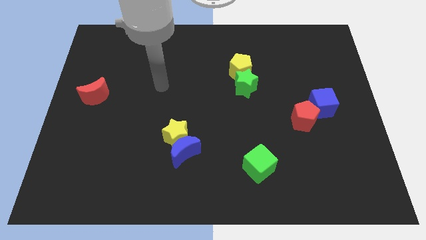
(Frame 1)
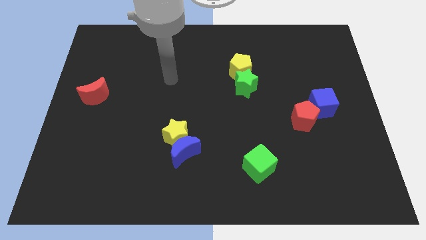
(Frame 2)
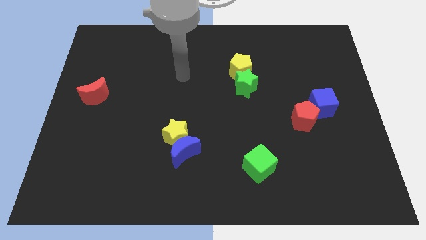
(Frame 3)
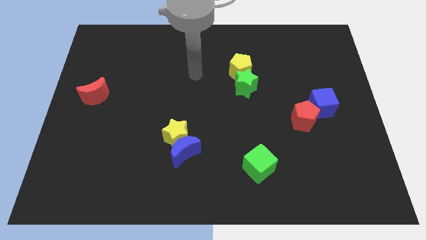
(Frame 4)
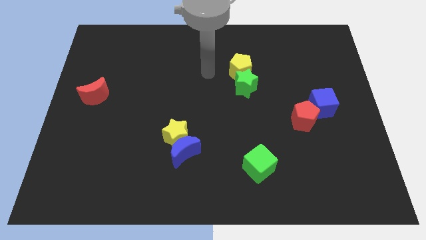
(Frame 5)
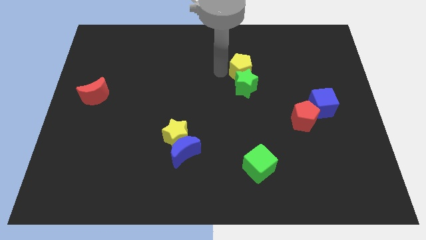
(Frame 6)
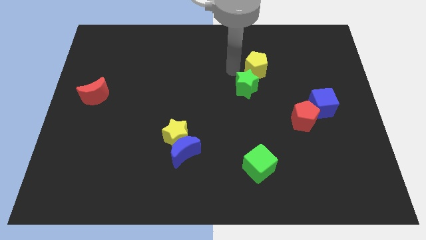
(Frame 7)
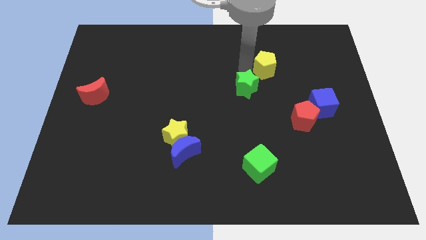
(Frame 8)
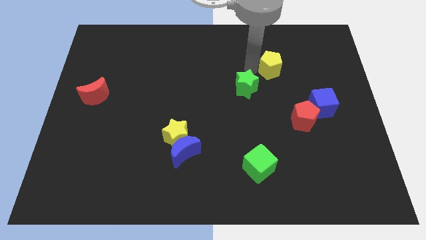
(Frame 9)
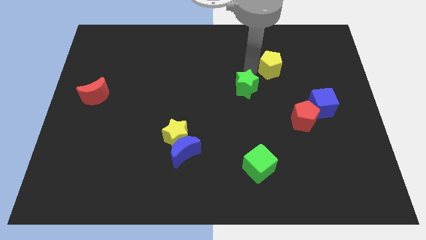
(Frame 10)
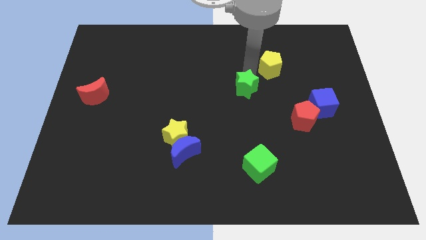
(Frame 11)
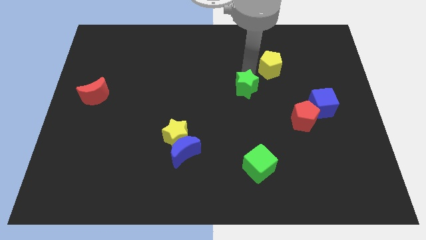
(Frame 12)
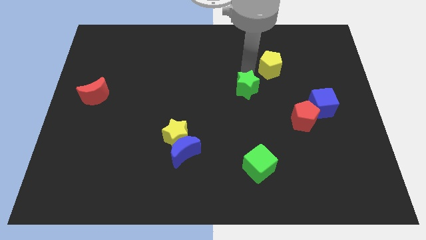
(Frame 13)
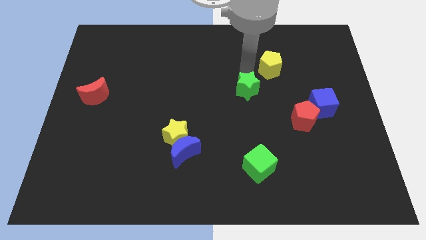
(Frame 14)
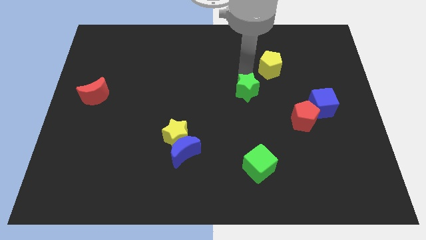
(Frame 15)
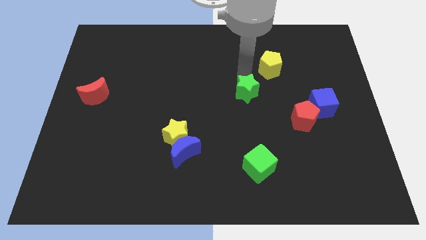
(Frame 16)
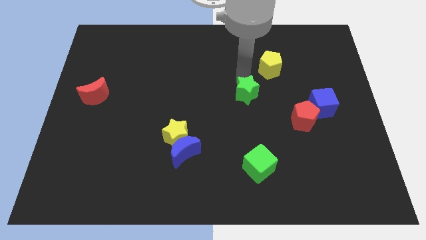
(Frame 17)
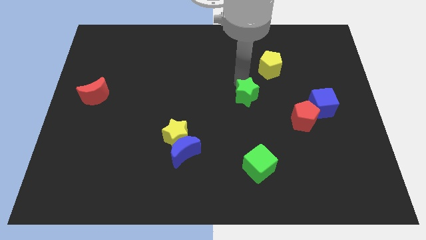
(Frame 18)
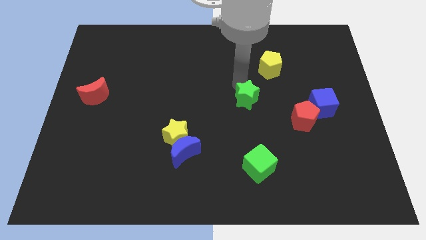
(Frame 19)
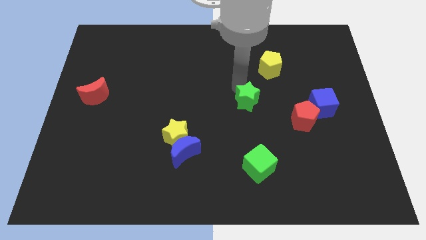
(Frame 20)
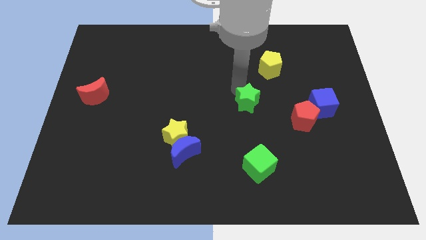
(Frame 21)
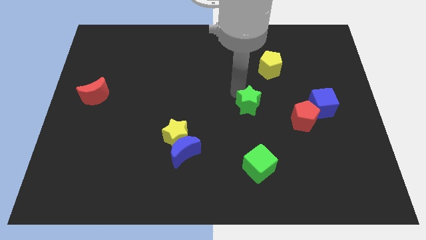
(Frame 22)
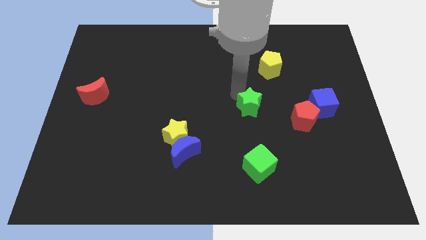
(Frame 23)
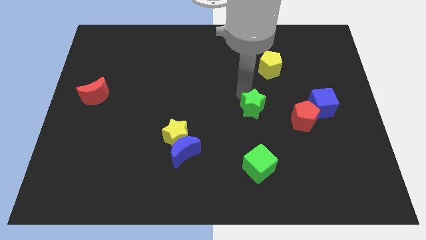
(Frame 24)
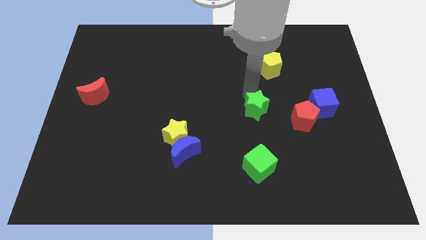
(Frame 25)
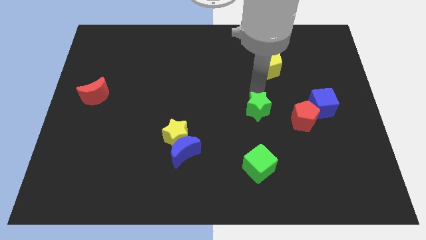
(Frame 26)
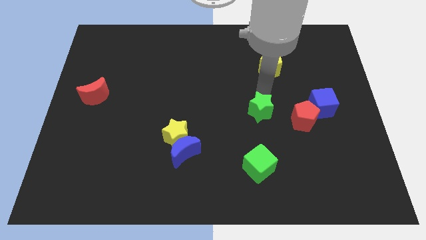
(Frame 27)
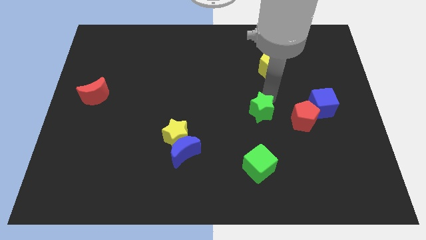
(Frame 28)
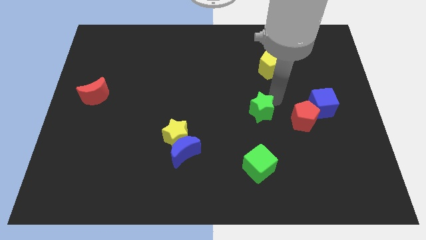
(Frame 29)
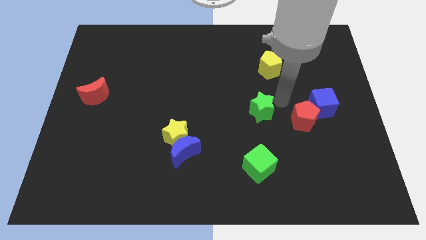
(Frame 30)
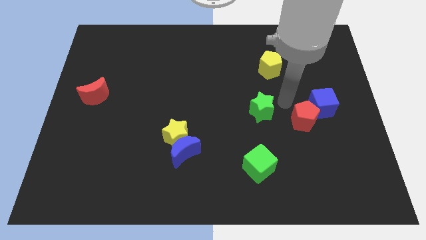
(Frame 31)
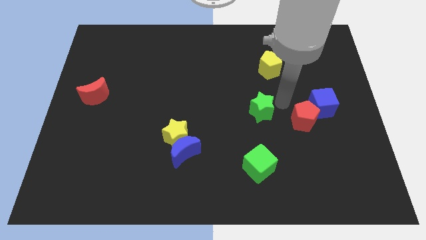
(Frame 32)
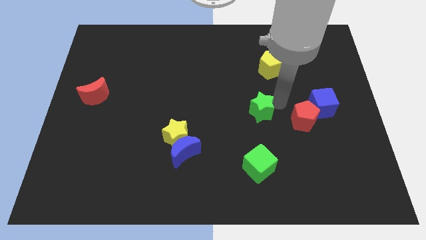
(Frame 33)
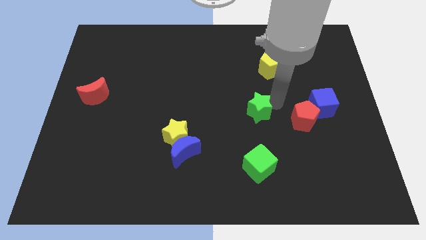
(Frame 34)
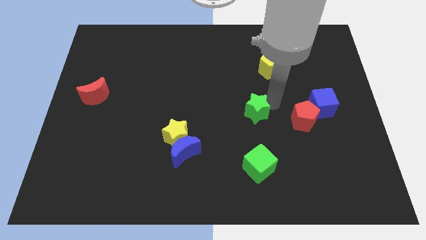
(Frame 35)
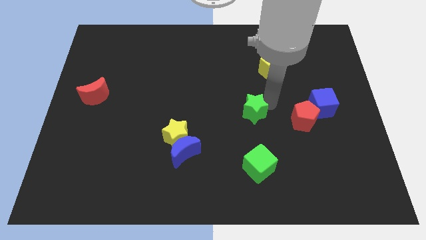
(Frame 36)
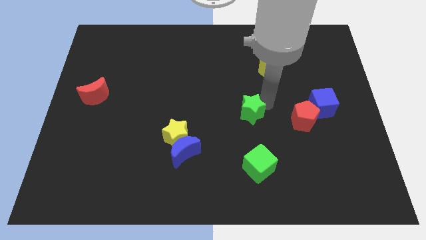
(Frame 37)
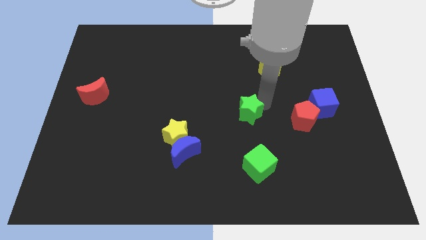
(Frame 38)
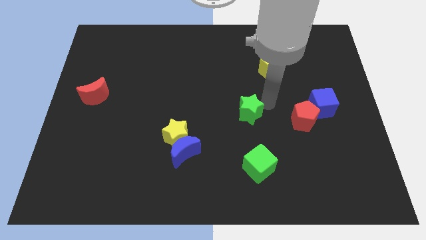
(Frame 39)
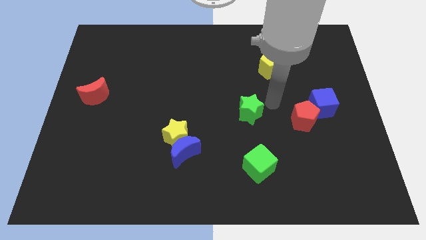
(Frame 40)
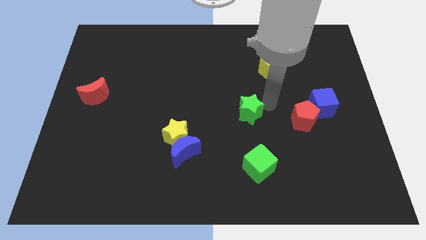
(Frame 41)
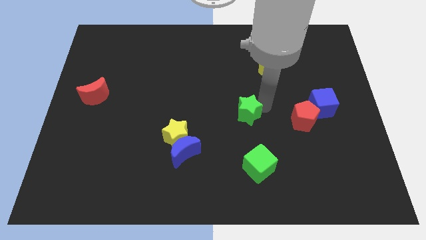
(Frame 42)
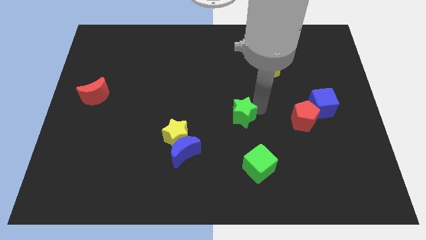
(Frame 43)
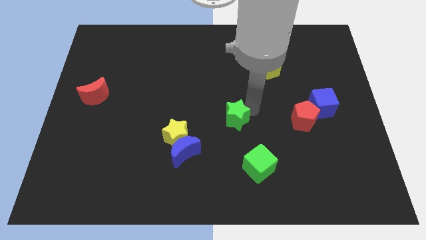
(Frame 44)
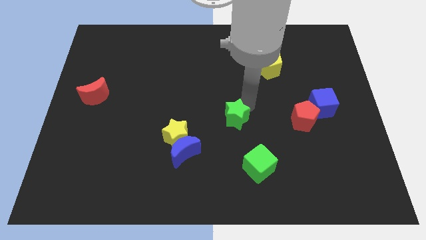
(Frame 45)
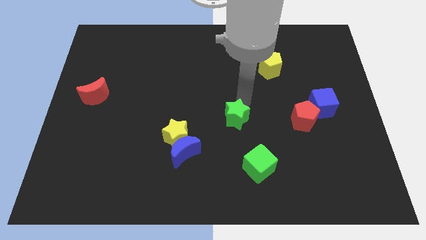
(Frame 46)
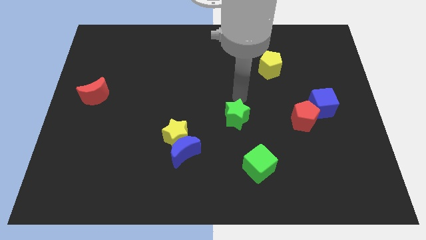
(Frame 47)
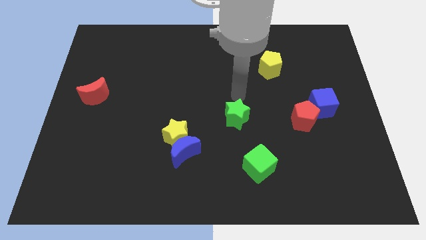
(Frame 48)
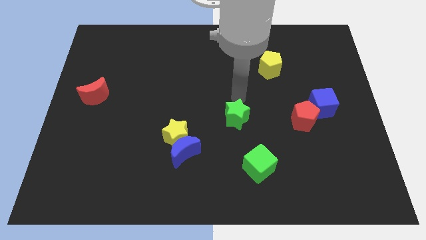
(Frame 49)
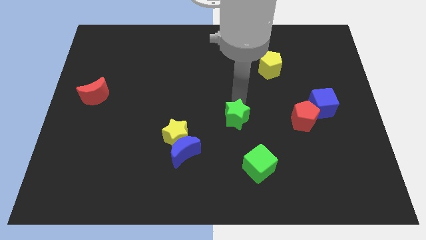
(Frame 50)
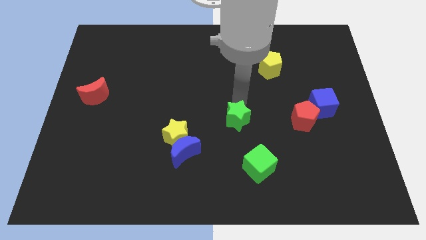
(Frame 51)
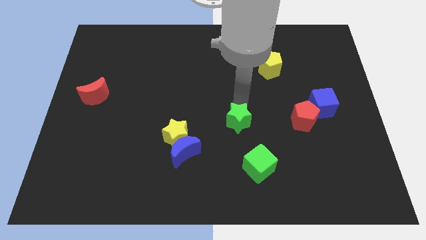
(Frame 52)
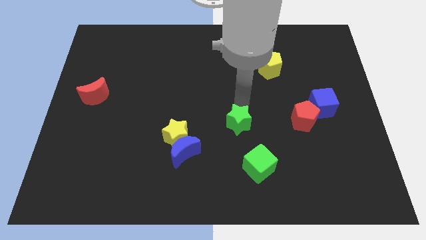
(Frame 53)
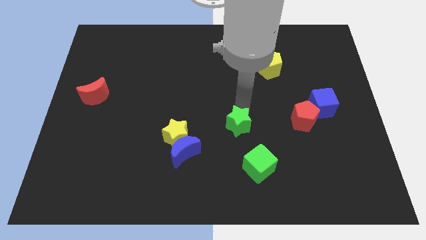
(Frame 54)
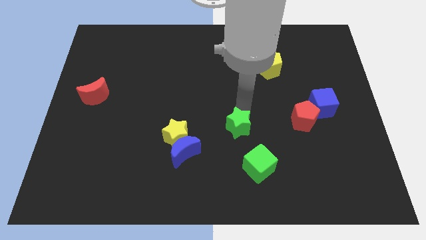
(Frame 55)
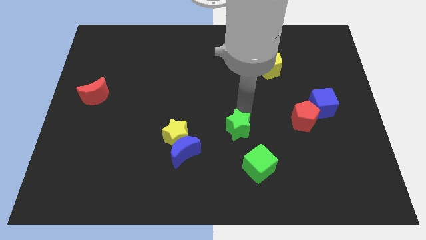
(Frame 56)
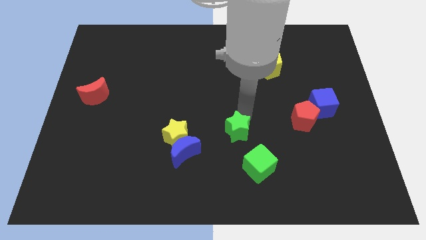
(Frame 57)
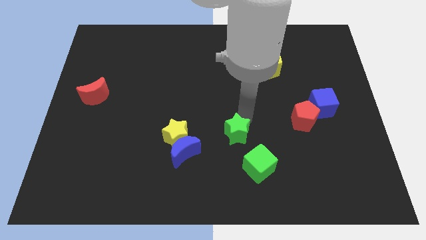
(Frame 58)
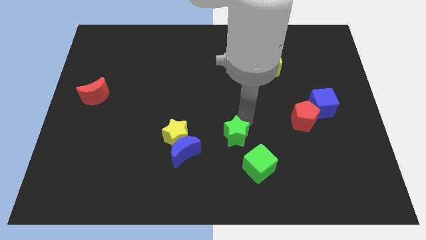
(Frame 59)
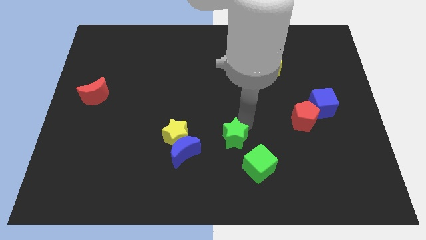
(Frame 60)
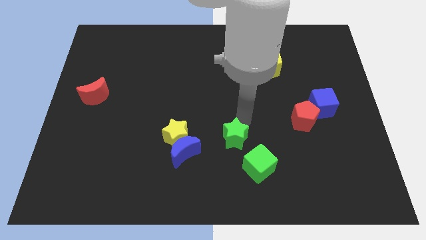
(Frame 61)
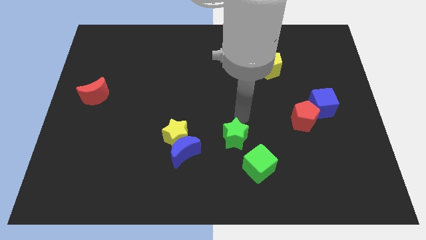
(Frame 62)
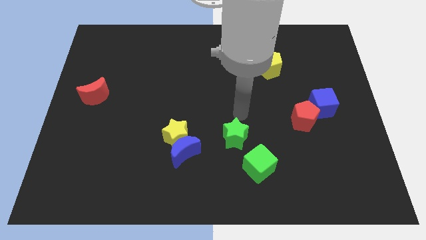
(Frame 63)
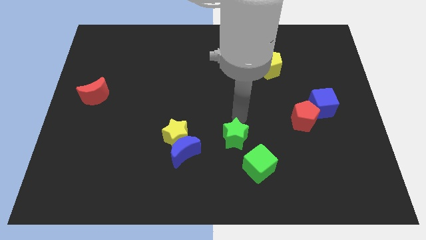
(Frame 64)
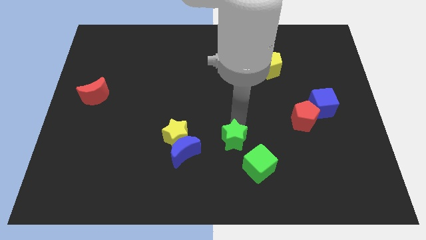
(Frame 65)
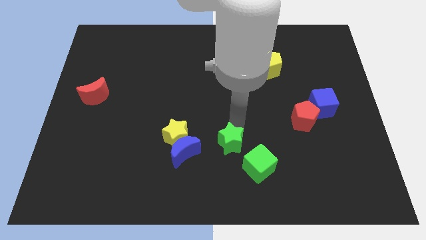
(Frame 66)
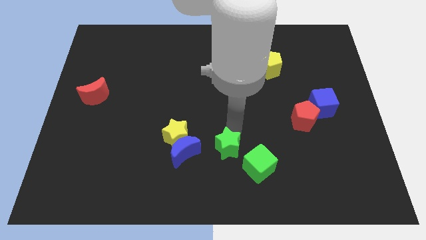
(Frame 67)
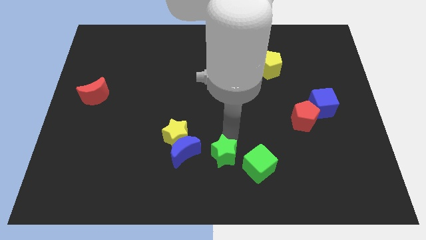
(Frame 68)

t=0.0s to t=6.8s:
slide the green star to the bottom side

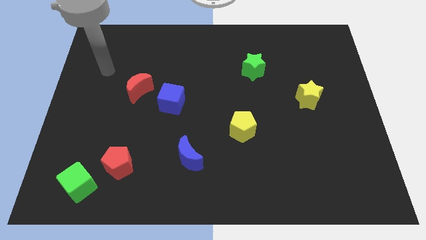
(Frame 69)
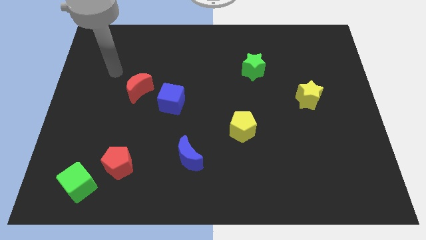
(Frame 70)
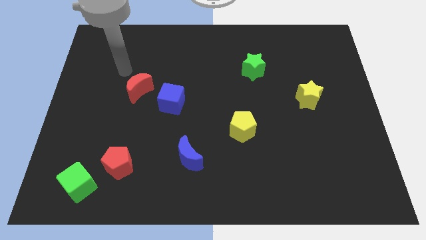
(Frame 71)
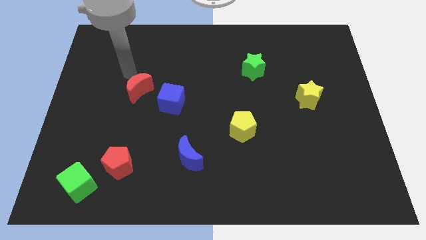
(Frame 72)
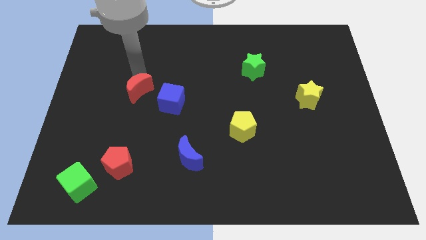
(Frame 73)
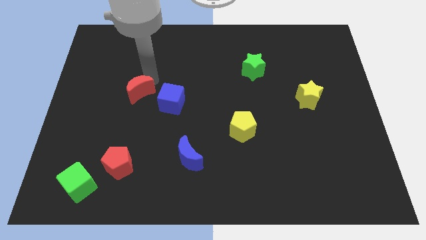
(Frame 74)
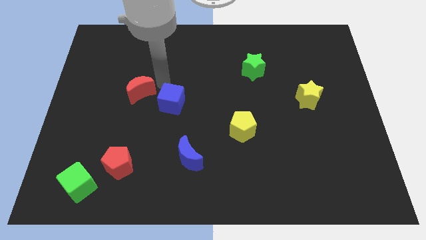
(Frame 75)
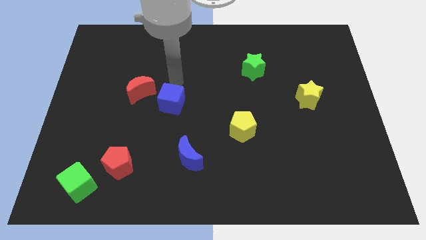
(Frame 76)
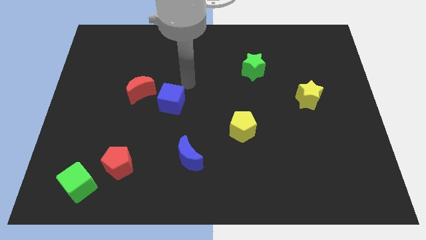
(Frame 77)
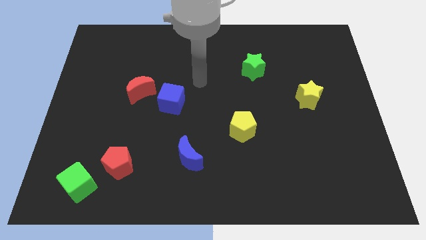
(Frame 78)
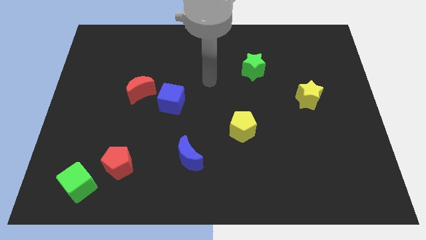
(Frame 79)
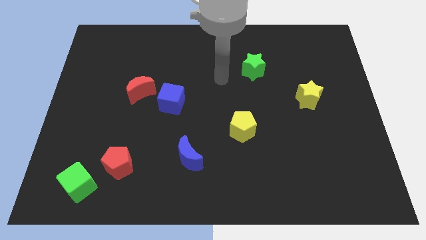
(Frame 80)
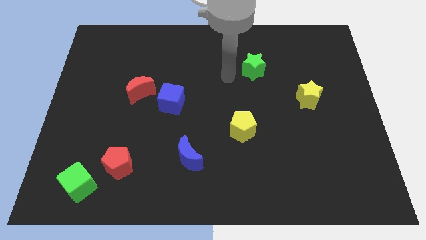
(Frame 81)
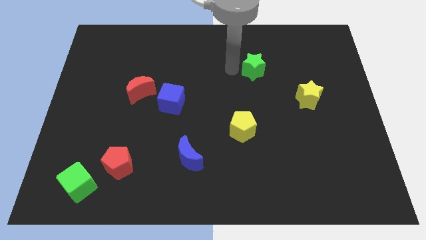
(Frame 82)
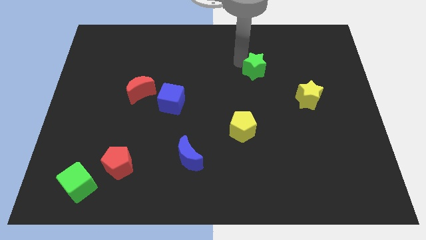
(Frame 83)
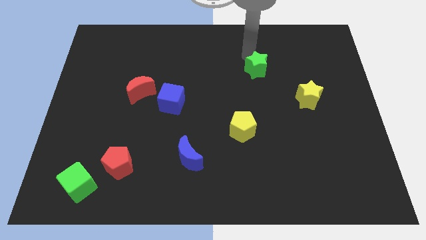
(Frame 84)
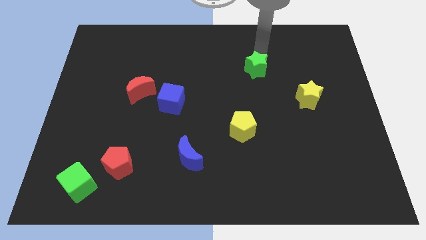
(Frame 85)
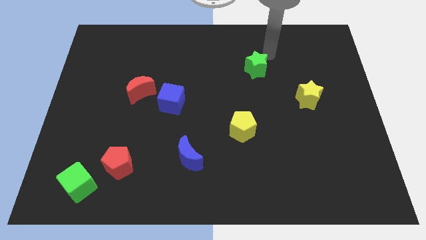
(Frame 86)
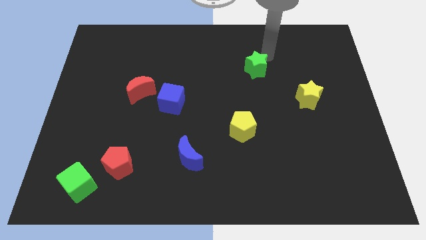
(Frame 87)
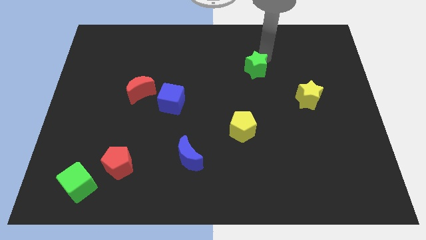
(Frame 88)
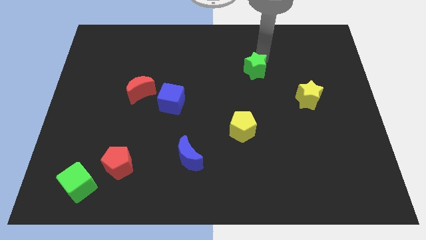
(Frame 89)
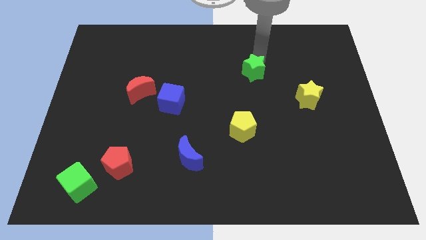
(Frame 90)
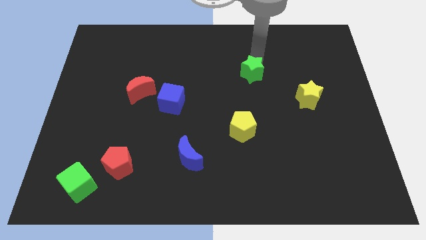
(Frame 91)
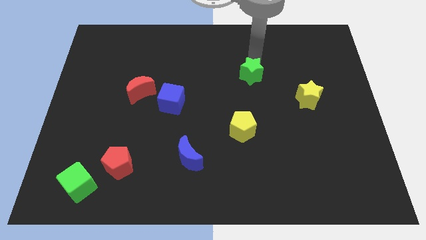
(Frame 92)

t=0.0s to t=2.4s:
push the green star to the middle
